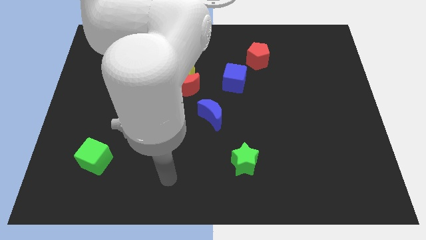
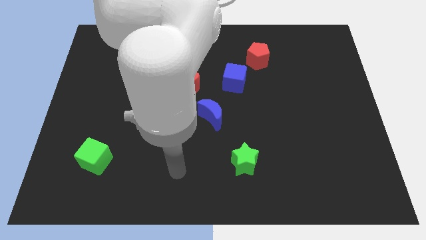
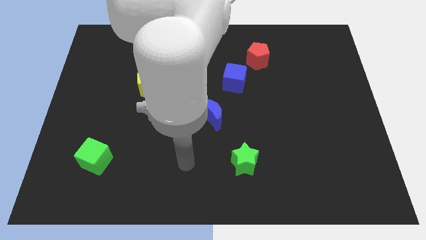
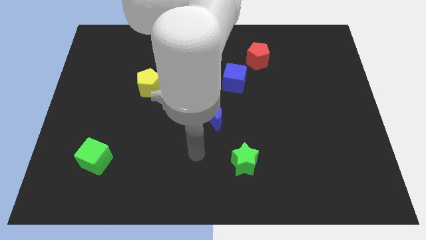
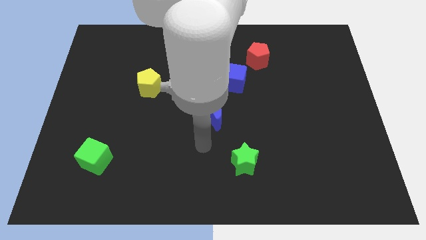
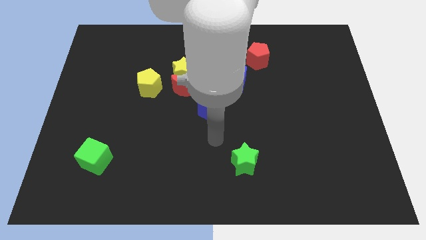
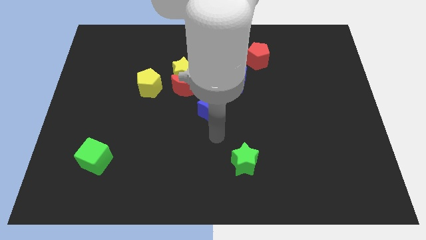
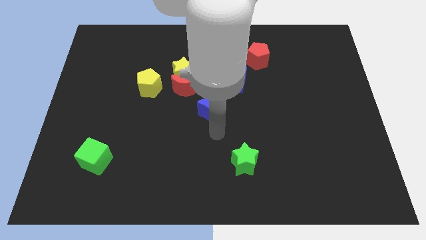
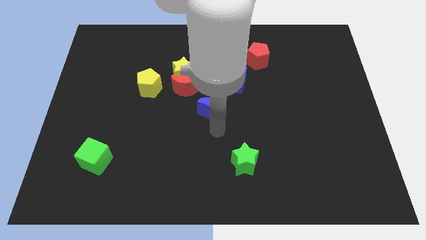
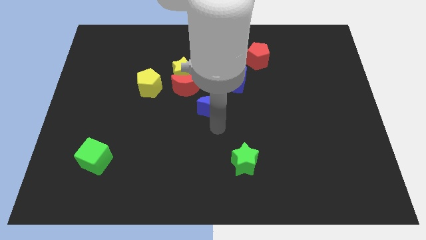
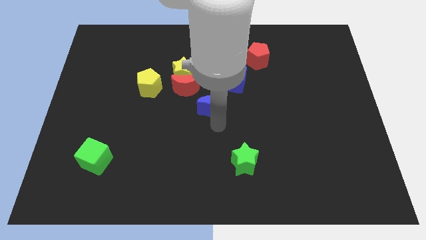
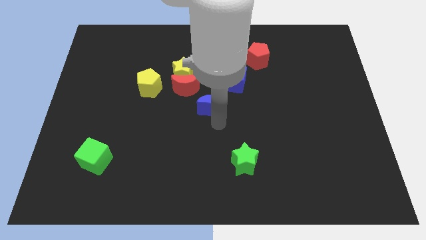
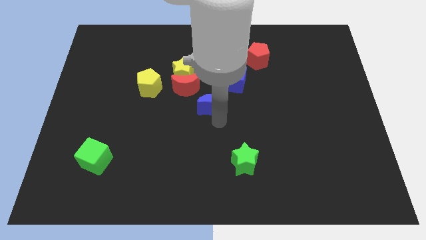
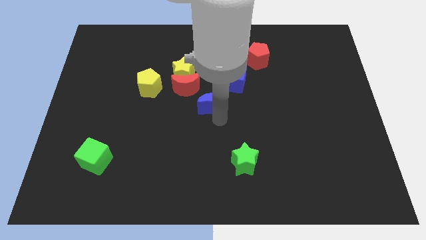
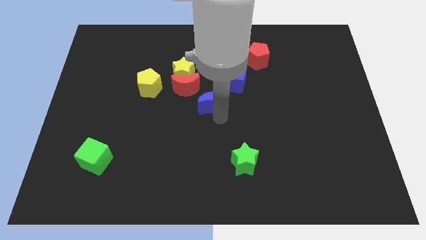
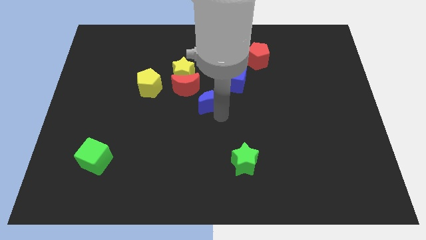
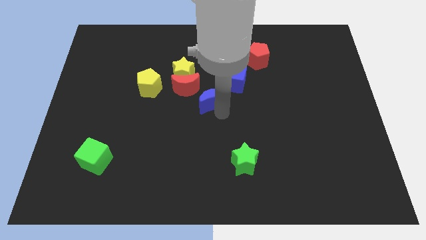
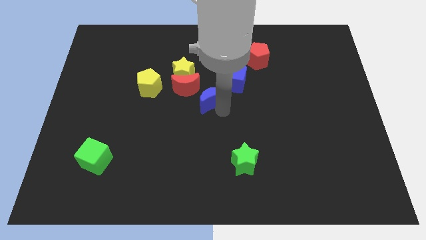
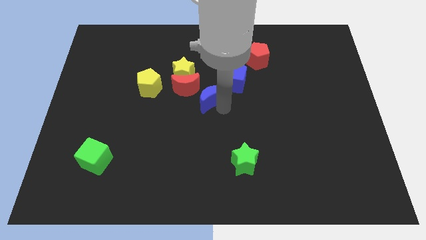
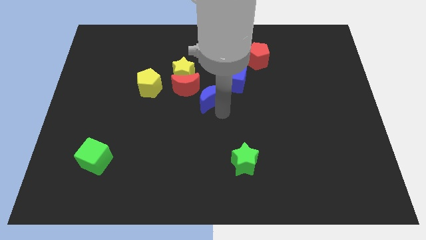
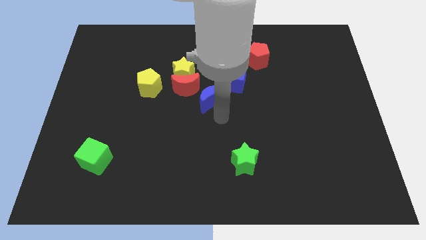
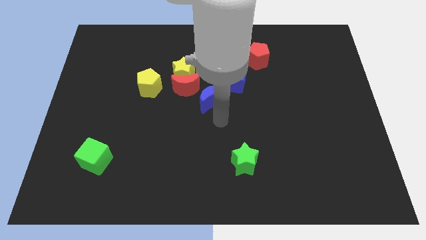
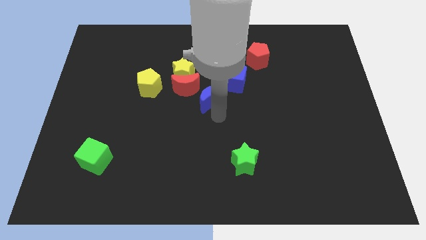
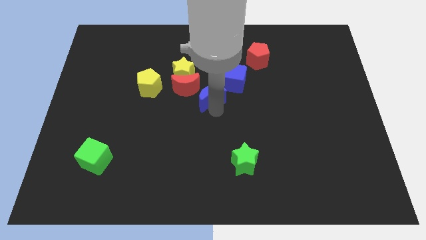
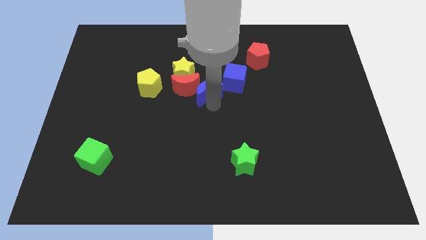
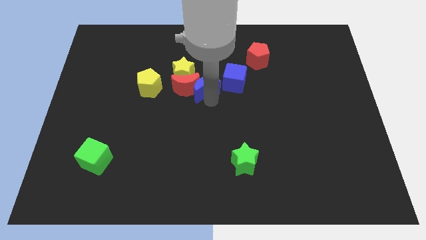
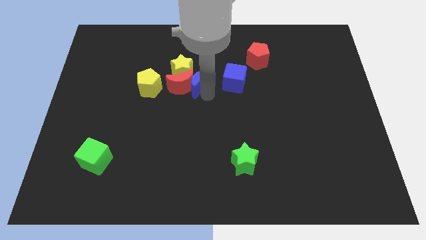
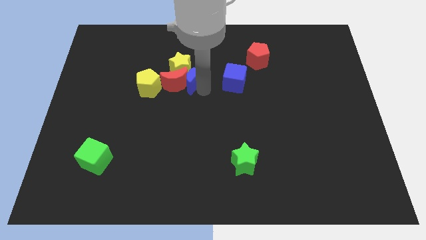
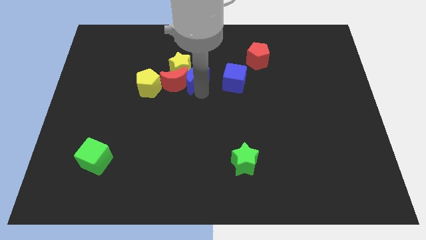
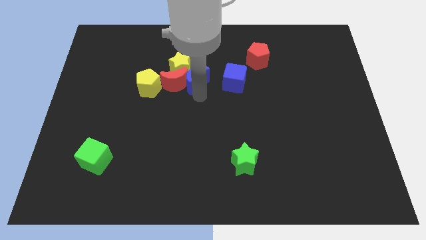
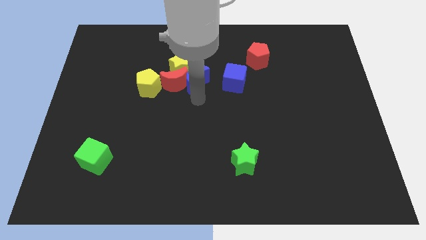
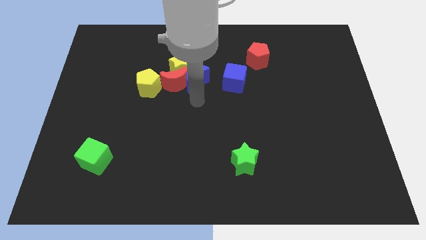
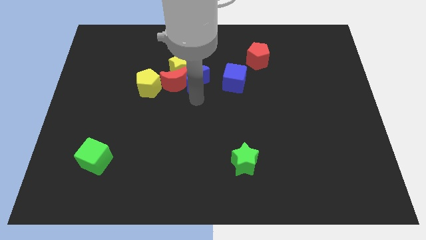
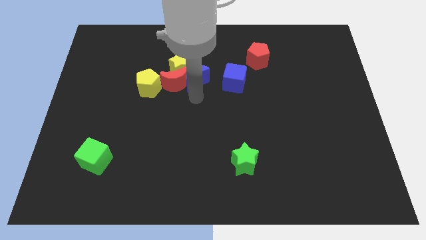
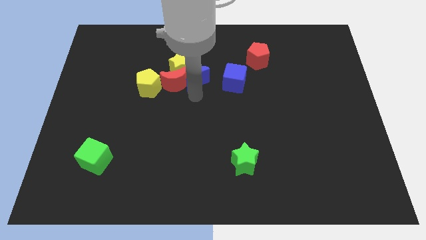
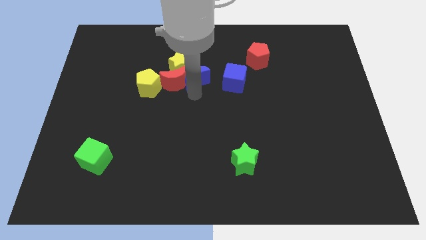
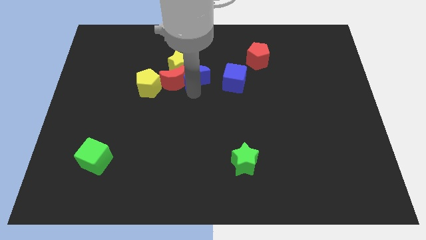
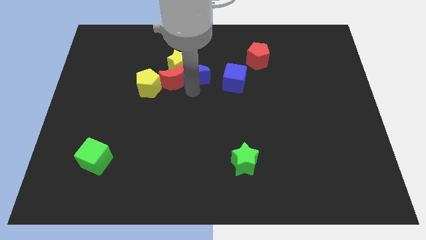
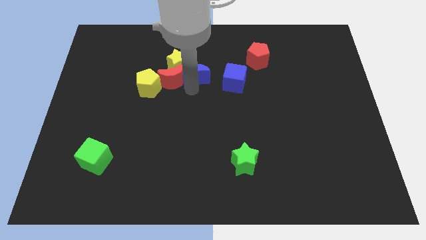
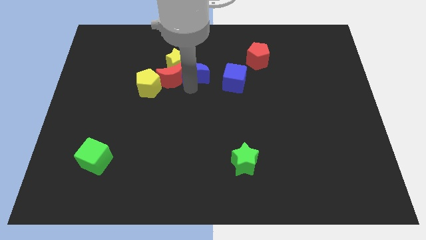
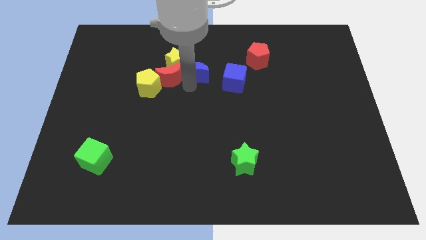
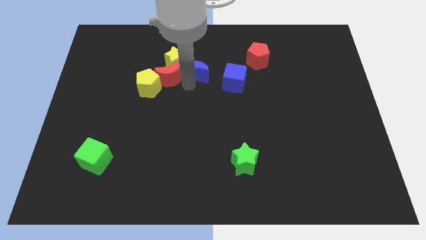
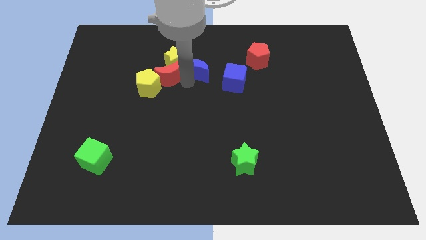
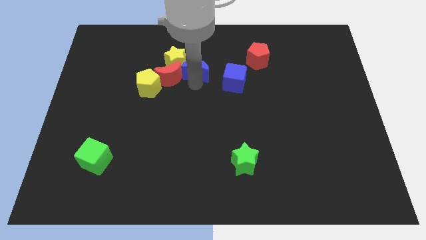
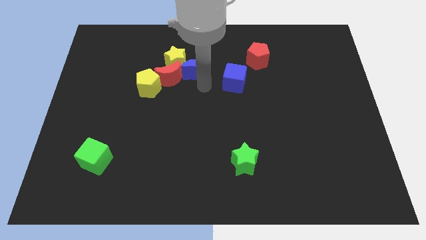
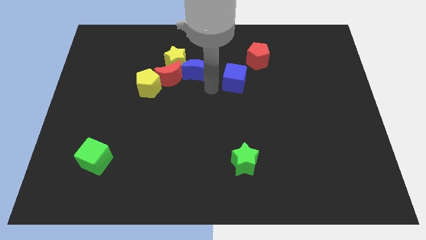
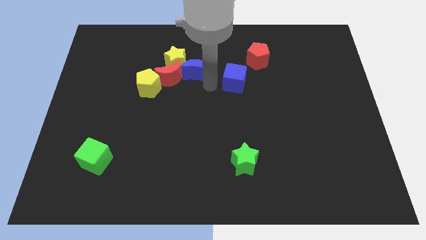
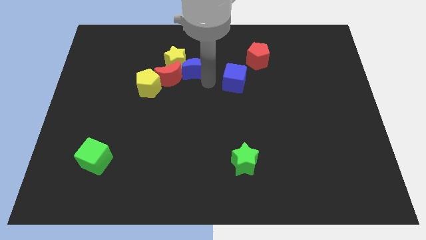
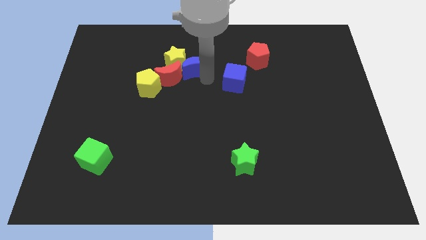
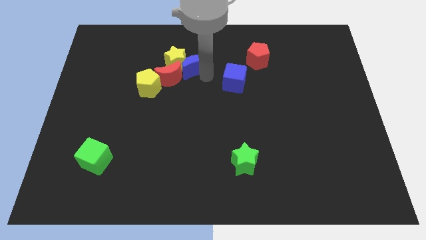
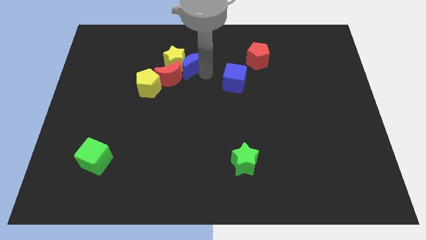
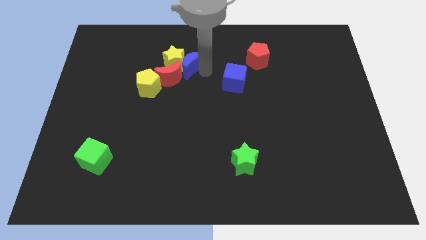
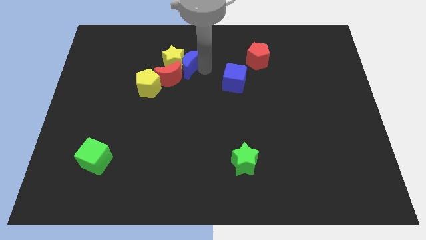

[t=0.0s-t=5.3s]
move the blue moon to the top side of the red moon

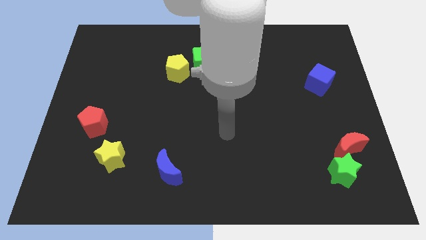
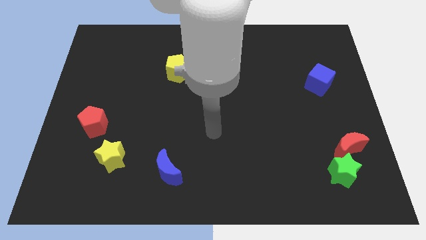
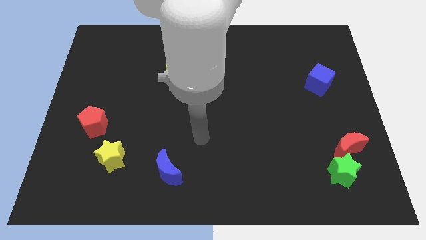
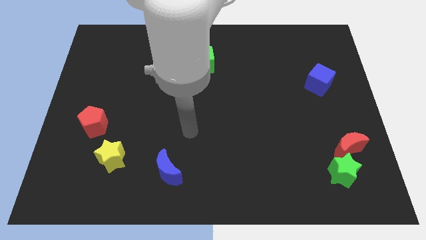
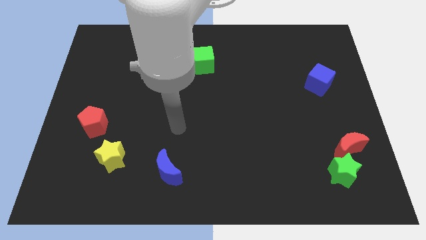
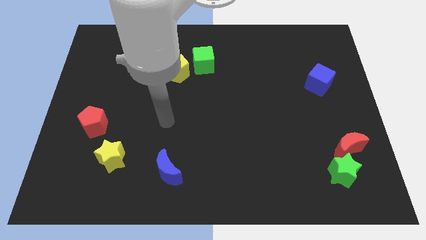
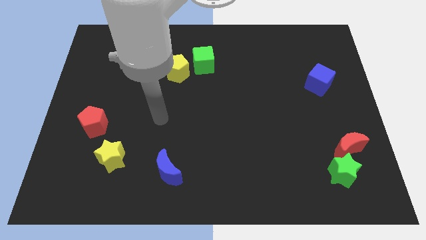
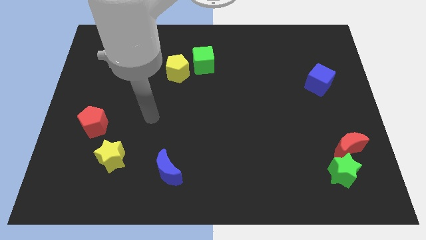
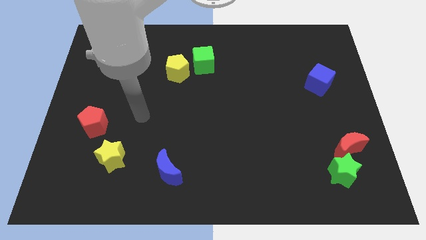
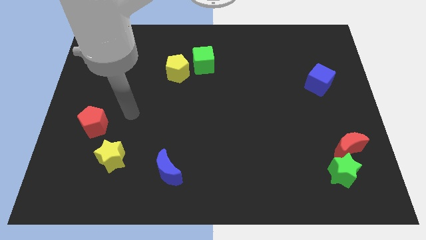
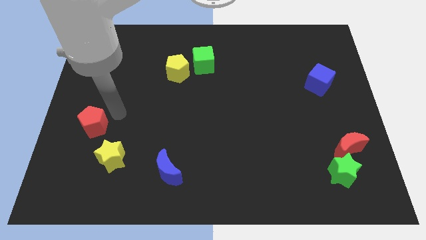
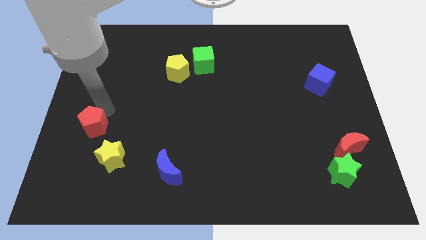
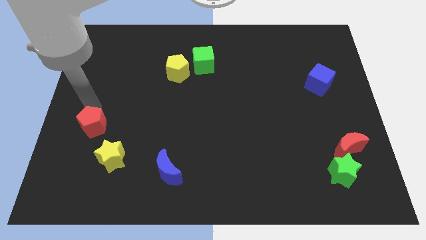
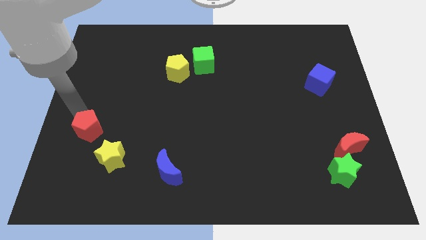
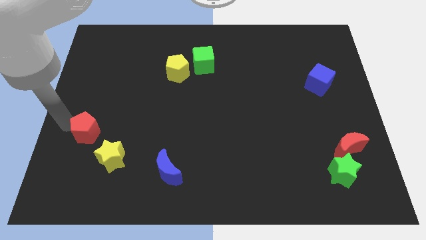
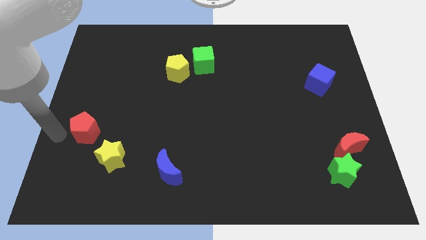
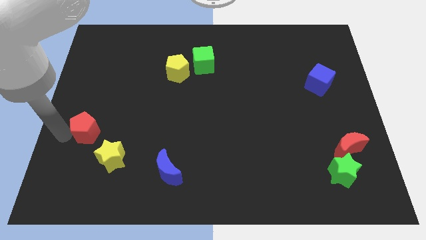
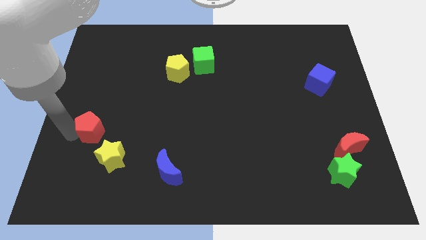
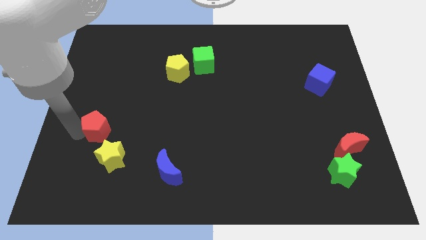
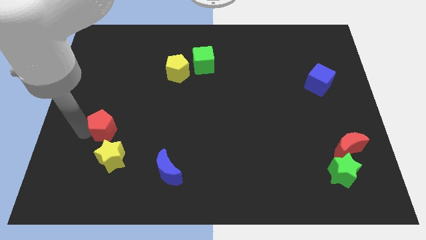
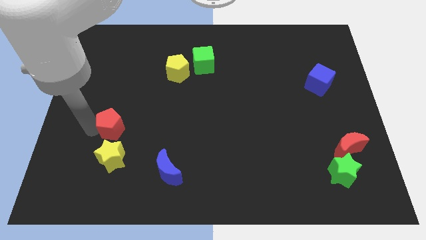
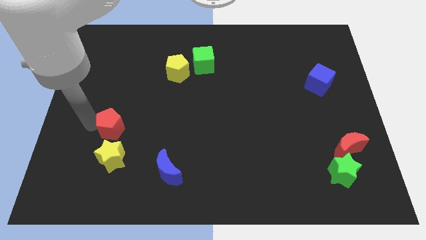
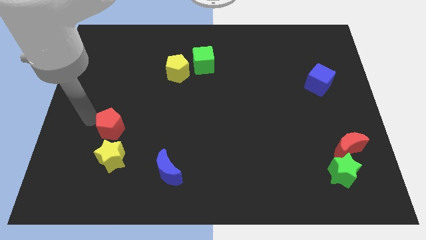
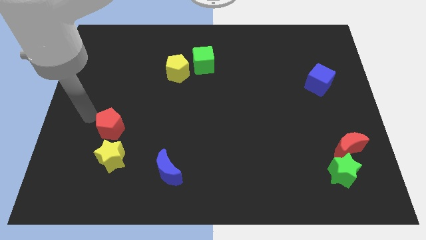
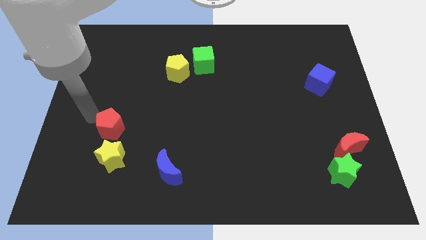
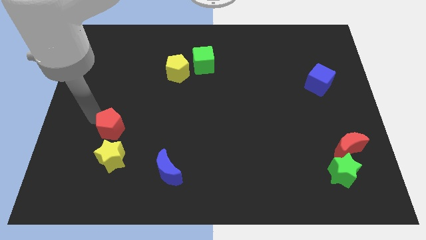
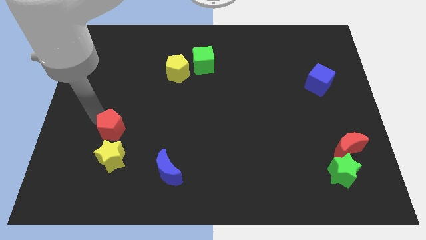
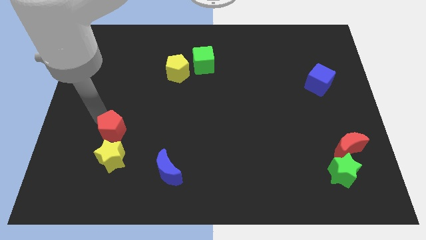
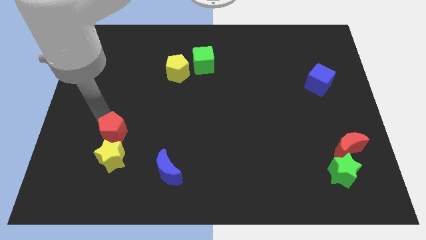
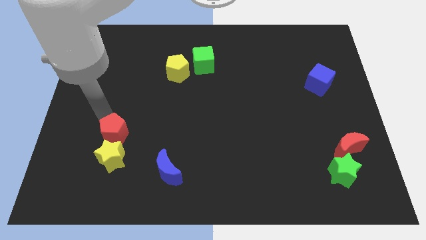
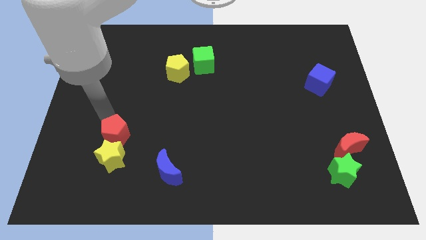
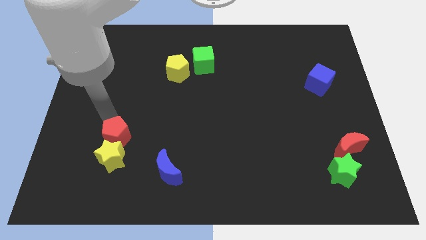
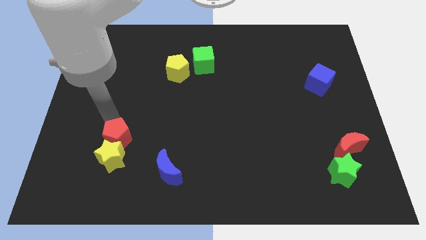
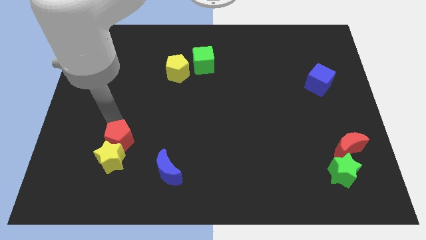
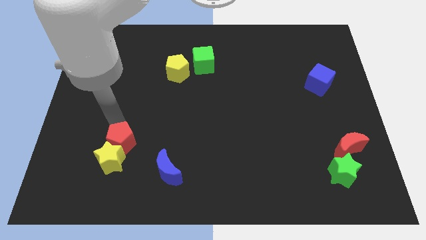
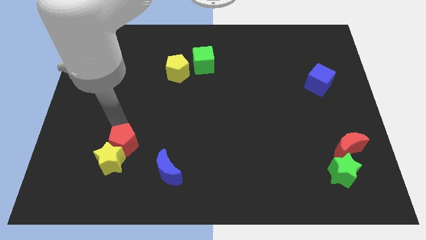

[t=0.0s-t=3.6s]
slide the red pentagon diagonally up and to the left of the blue moon
